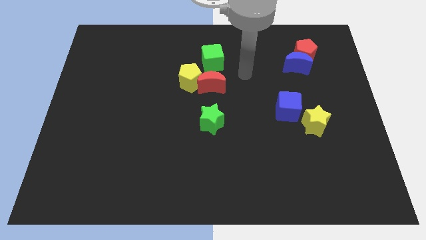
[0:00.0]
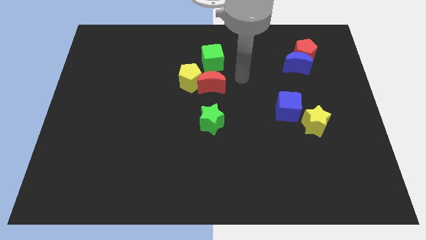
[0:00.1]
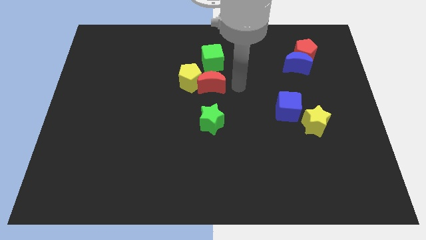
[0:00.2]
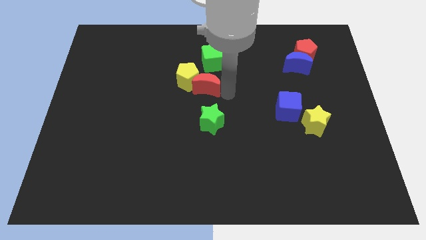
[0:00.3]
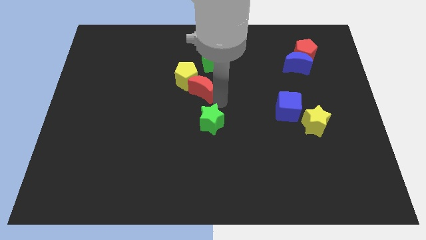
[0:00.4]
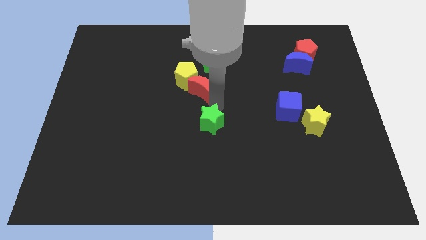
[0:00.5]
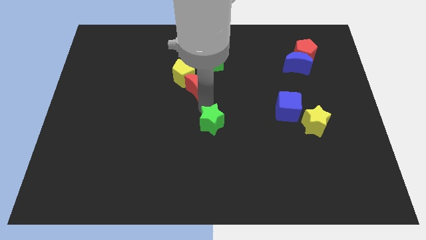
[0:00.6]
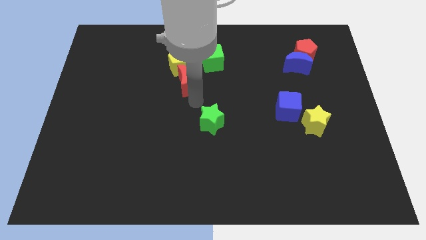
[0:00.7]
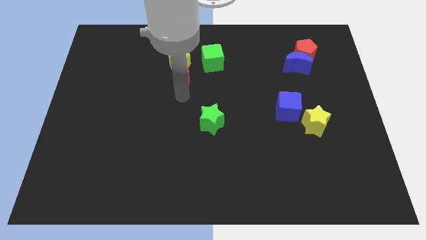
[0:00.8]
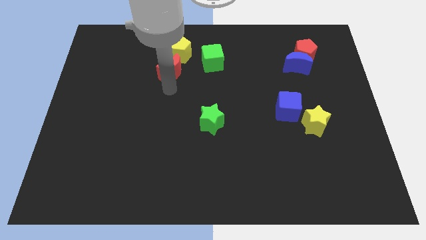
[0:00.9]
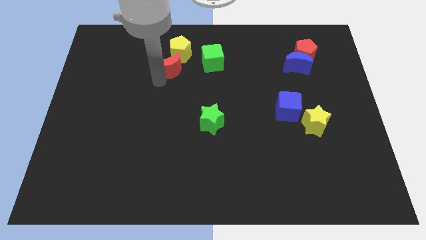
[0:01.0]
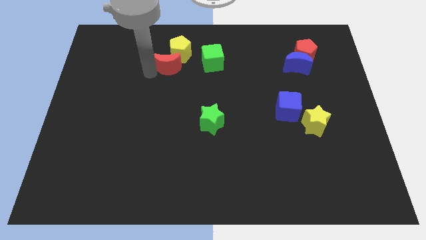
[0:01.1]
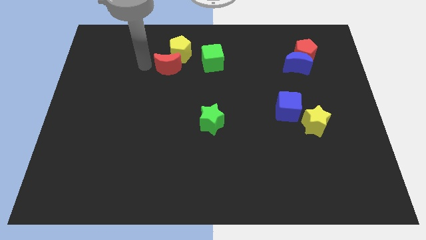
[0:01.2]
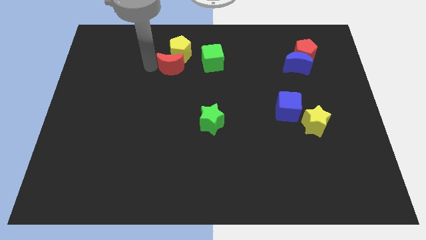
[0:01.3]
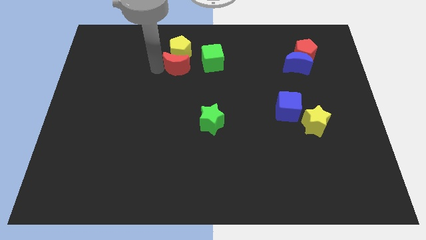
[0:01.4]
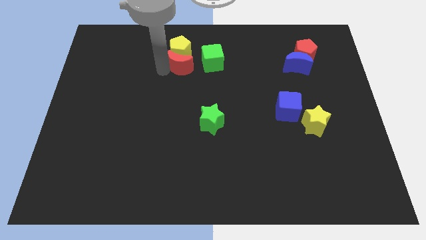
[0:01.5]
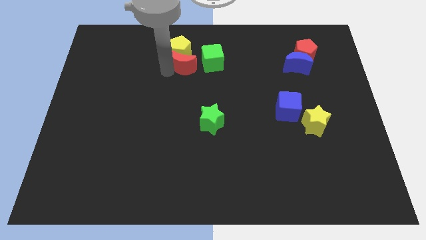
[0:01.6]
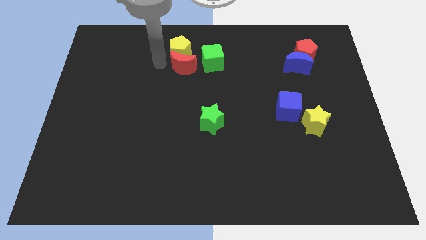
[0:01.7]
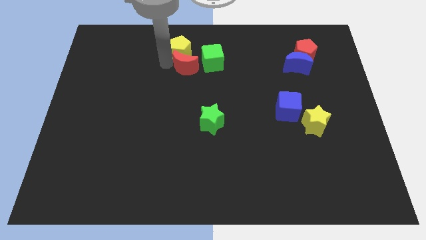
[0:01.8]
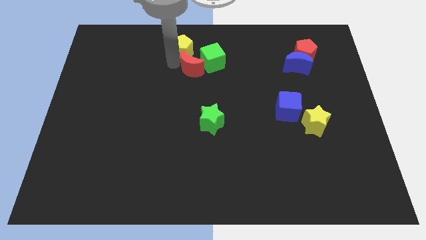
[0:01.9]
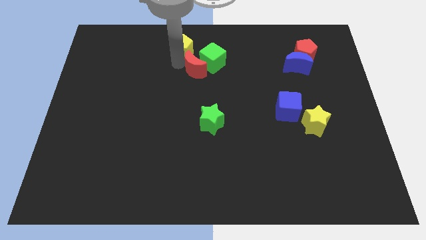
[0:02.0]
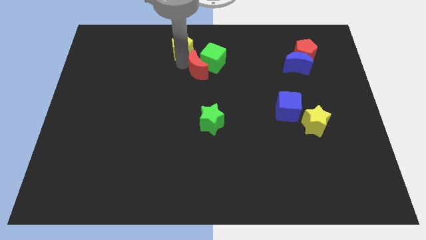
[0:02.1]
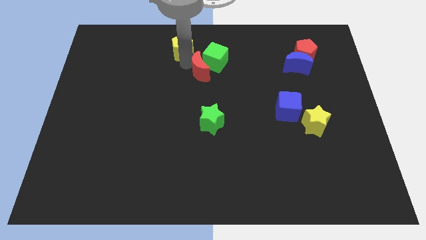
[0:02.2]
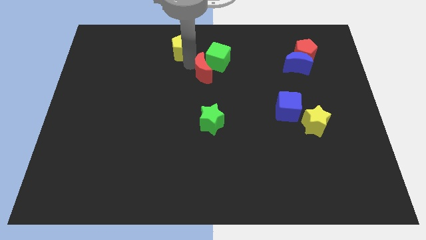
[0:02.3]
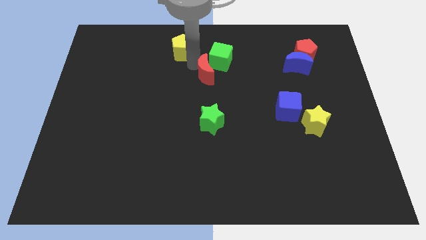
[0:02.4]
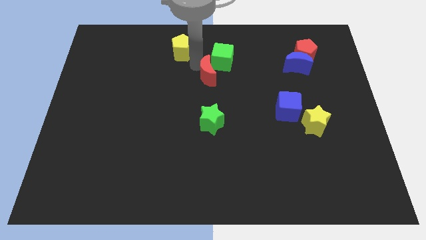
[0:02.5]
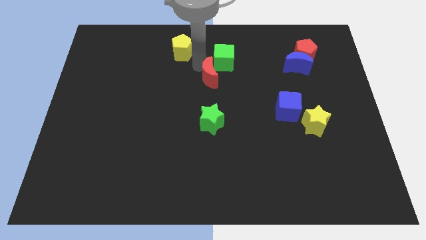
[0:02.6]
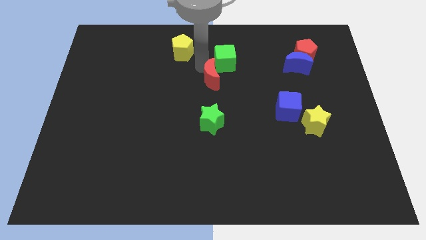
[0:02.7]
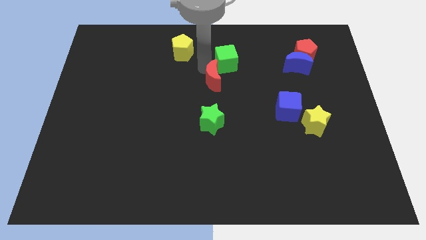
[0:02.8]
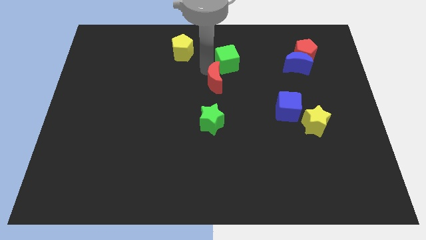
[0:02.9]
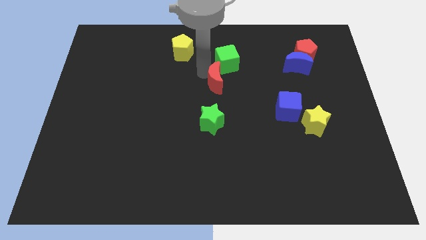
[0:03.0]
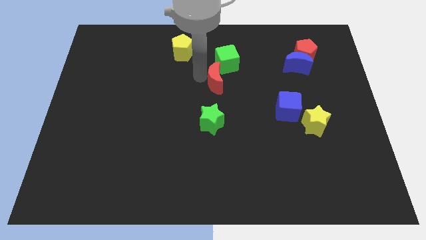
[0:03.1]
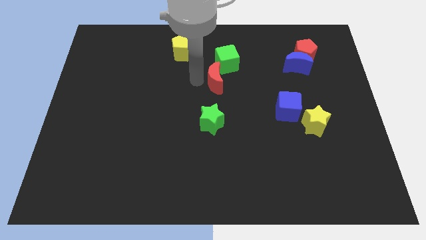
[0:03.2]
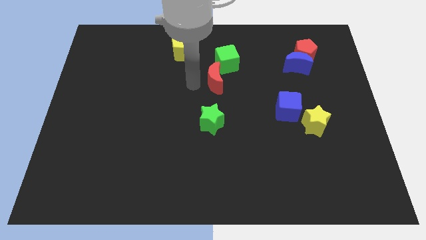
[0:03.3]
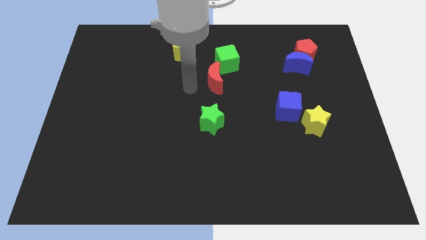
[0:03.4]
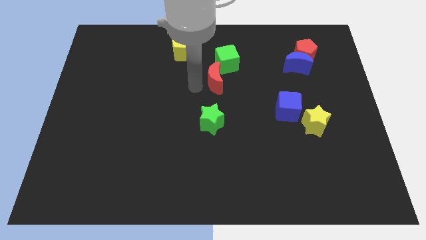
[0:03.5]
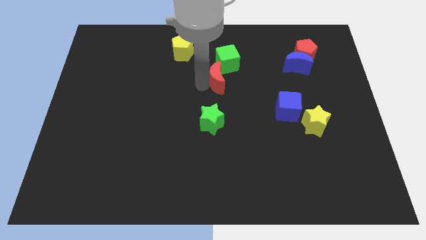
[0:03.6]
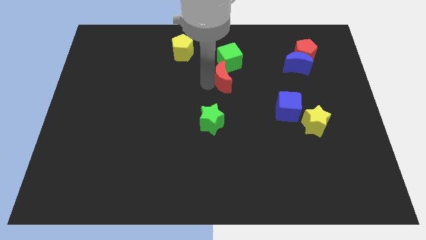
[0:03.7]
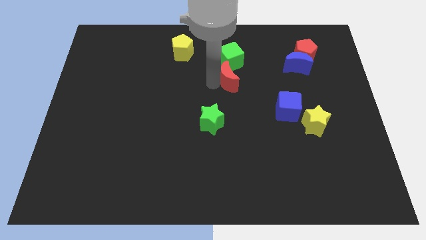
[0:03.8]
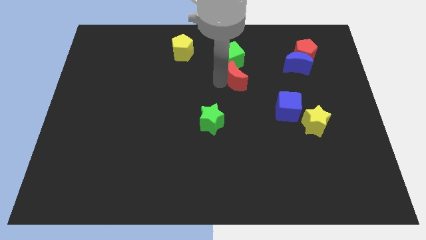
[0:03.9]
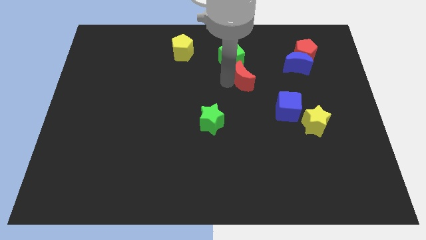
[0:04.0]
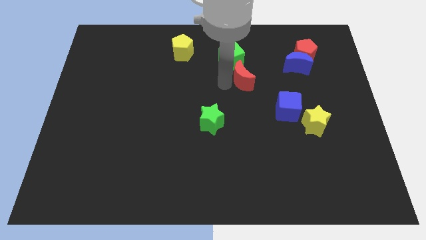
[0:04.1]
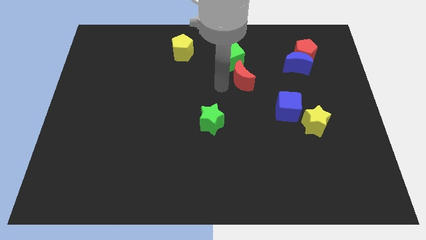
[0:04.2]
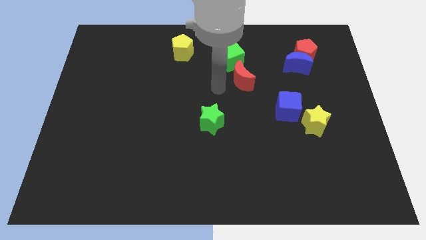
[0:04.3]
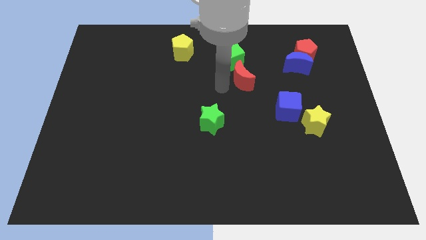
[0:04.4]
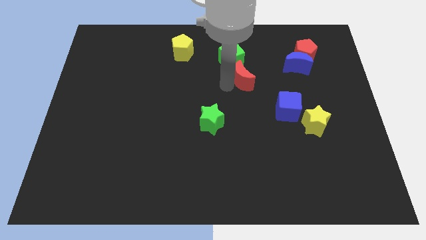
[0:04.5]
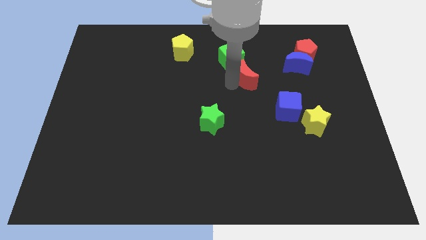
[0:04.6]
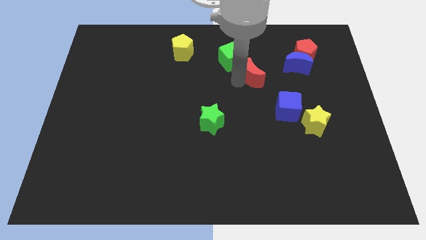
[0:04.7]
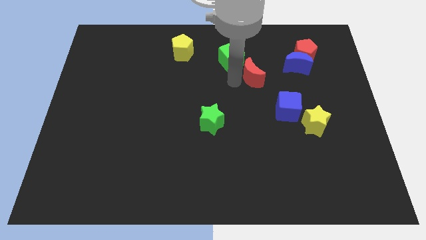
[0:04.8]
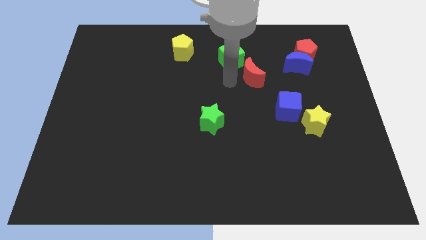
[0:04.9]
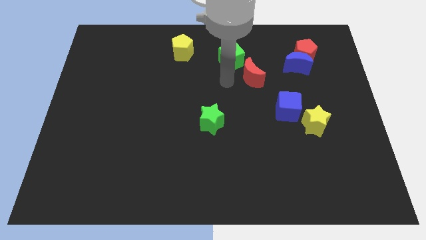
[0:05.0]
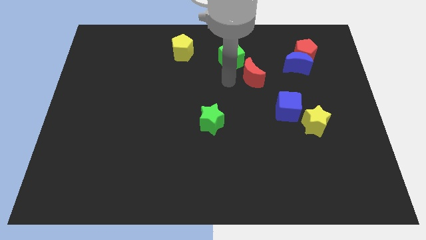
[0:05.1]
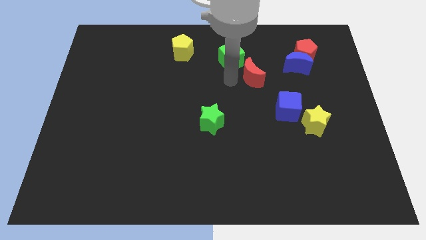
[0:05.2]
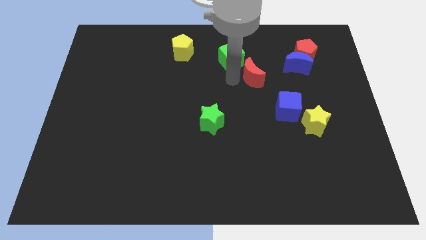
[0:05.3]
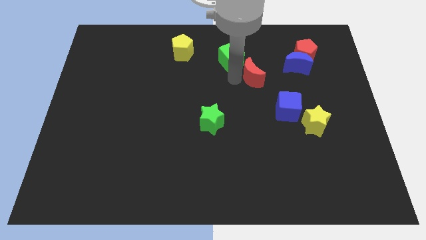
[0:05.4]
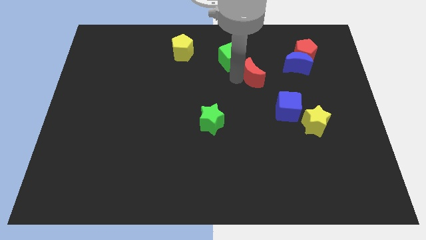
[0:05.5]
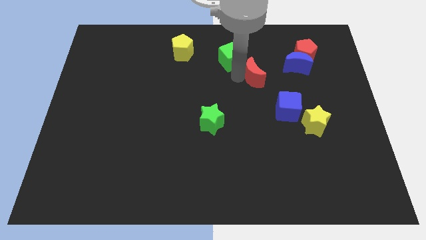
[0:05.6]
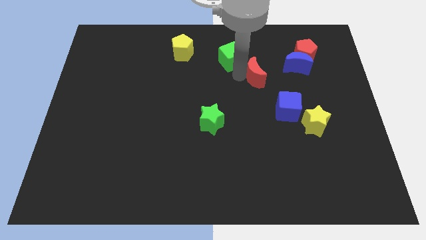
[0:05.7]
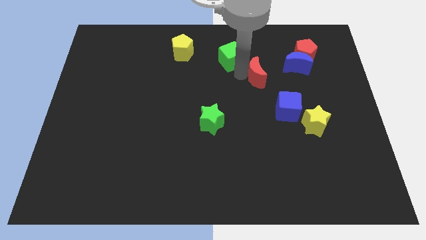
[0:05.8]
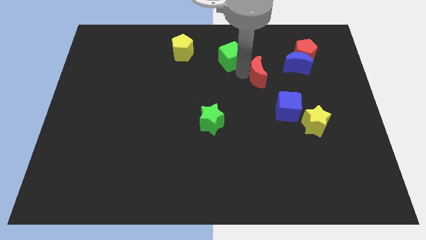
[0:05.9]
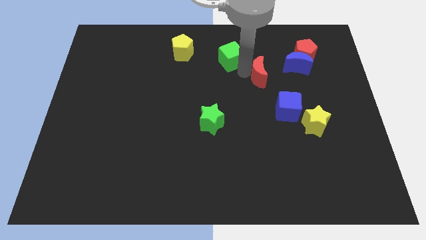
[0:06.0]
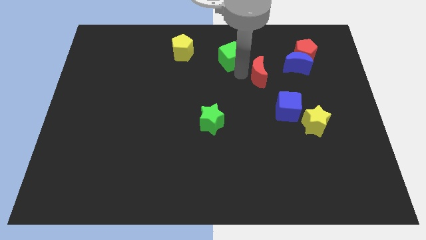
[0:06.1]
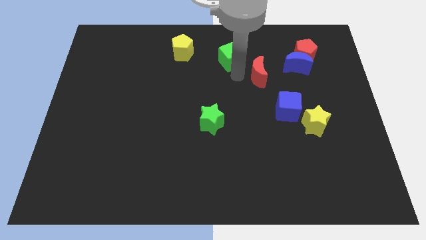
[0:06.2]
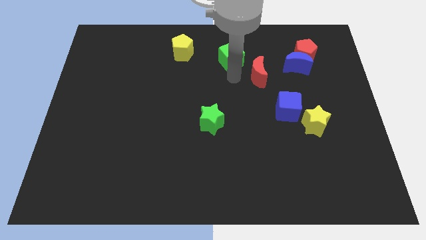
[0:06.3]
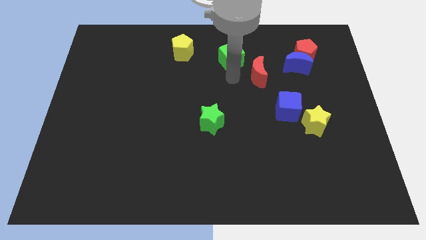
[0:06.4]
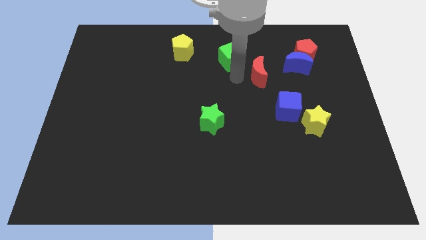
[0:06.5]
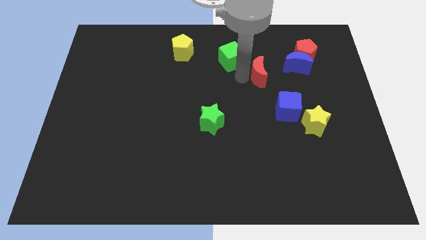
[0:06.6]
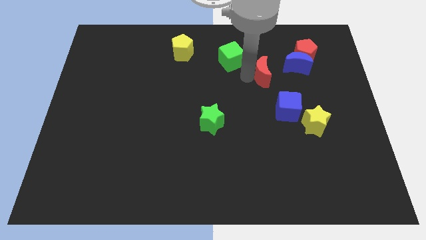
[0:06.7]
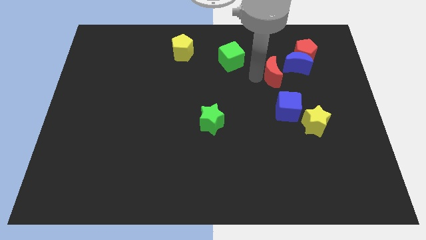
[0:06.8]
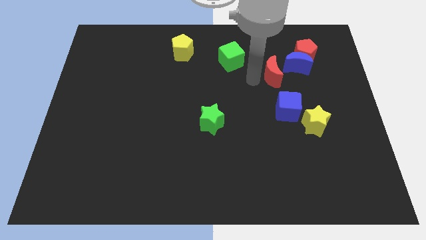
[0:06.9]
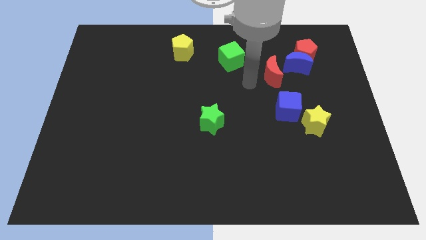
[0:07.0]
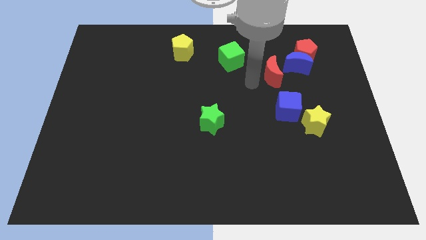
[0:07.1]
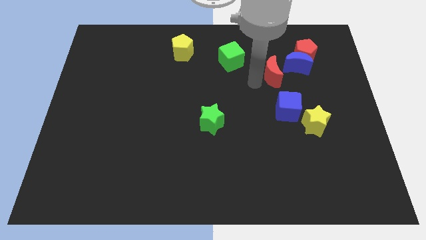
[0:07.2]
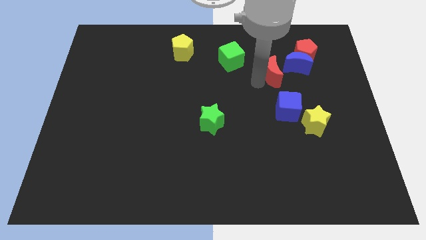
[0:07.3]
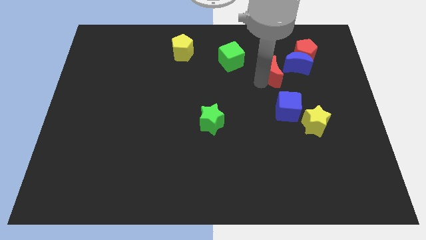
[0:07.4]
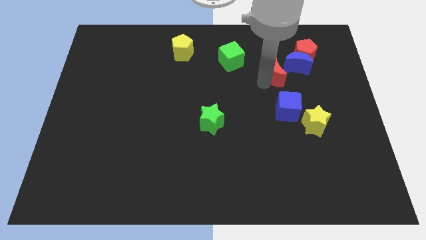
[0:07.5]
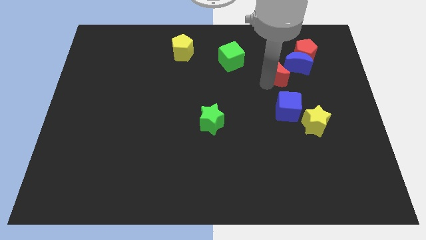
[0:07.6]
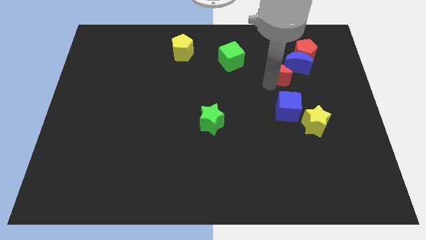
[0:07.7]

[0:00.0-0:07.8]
move the red moon close to the blue moon
